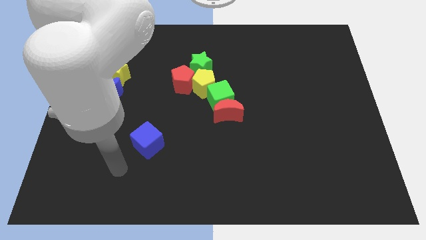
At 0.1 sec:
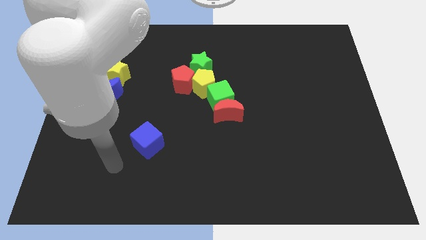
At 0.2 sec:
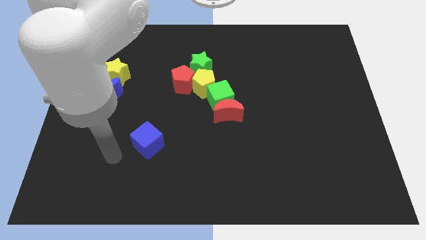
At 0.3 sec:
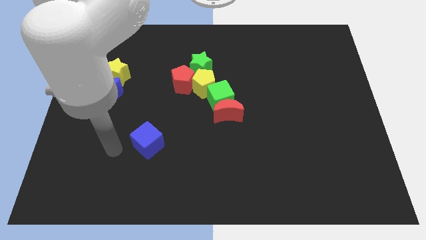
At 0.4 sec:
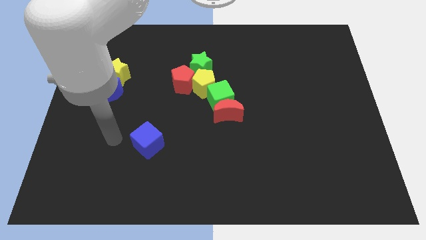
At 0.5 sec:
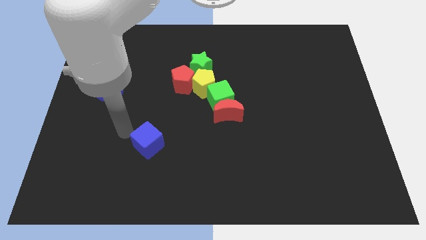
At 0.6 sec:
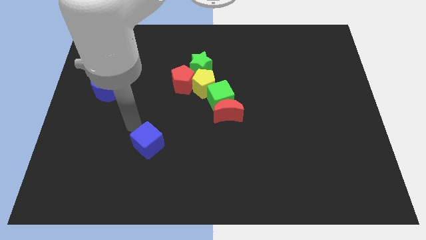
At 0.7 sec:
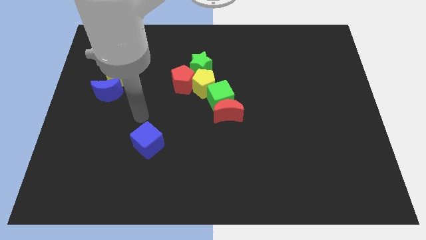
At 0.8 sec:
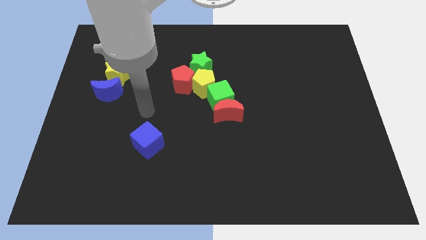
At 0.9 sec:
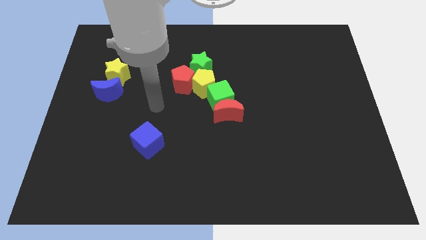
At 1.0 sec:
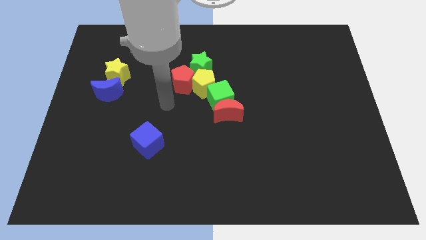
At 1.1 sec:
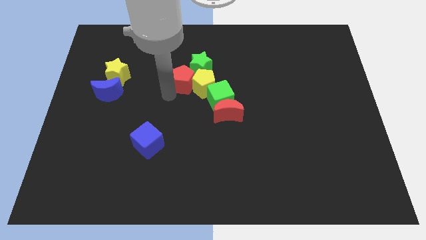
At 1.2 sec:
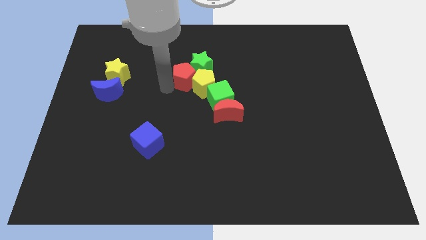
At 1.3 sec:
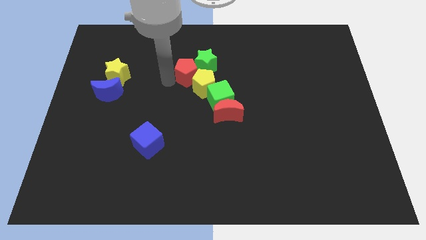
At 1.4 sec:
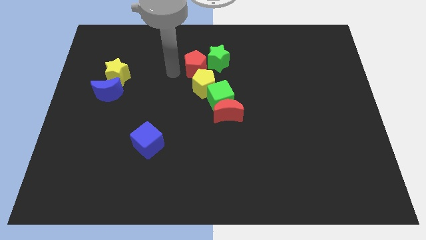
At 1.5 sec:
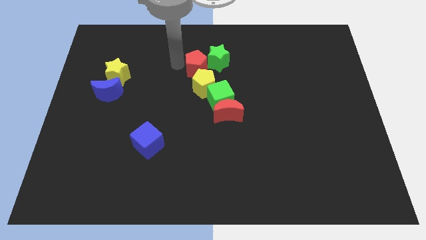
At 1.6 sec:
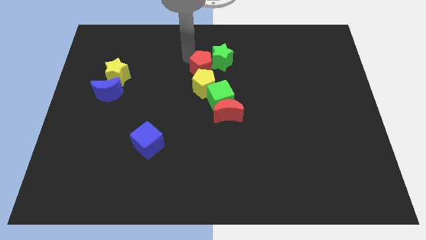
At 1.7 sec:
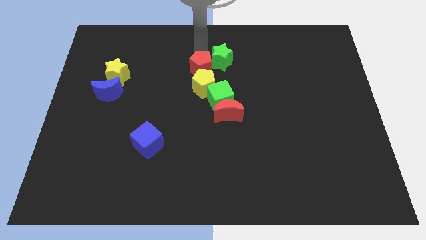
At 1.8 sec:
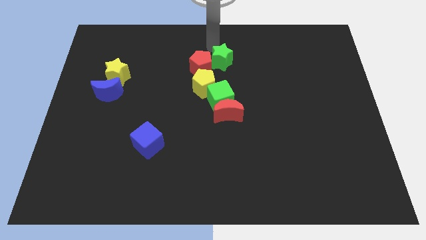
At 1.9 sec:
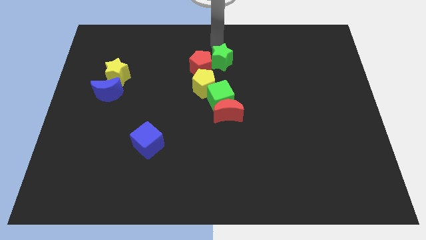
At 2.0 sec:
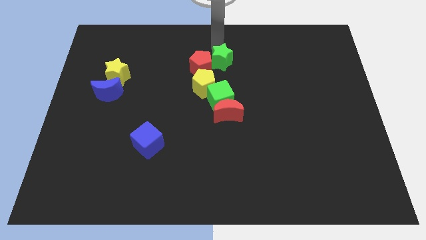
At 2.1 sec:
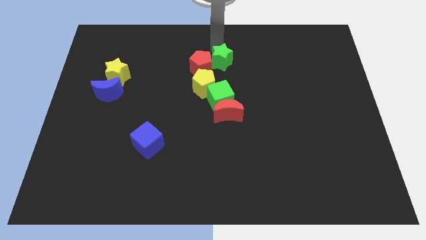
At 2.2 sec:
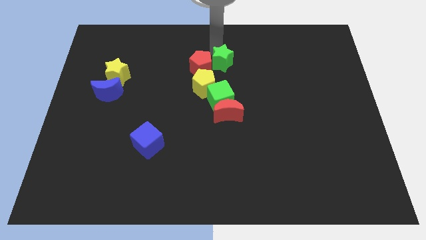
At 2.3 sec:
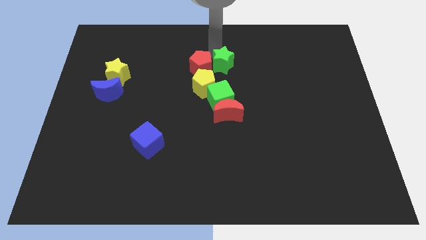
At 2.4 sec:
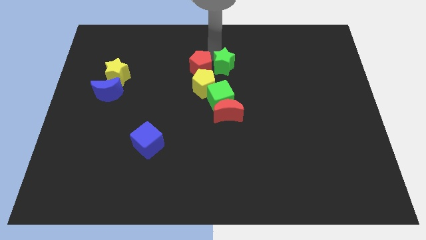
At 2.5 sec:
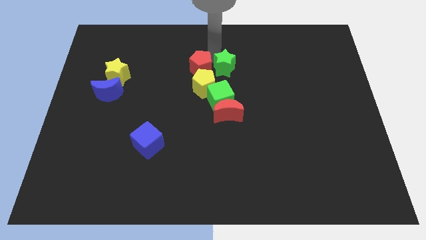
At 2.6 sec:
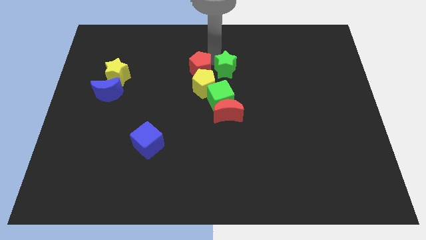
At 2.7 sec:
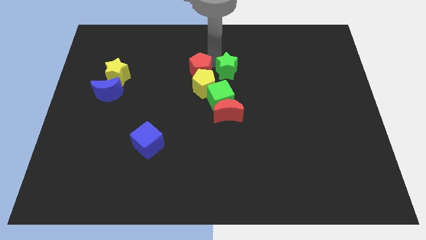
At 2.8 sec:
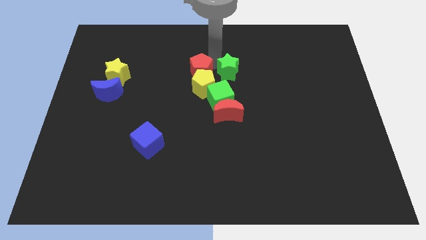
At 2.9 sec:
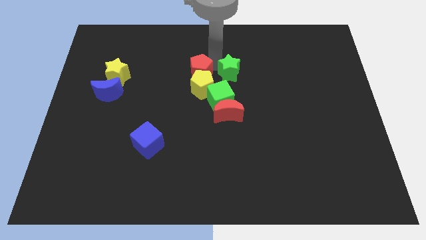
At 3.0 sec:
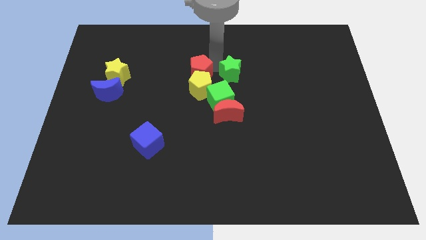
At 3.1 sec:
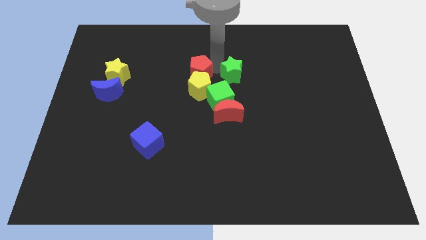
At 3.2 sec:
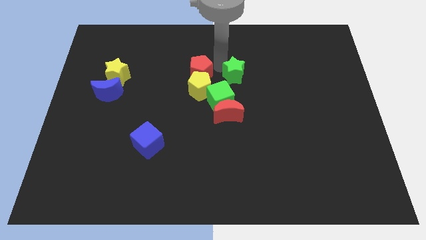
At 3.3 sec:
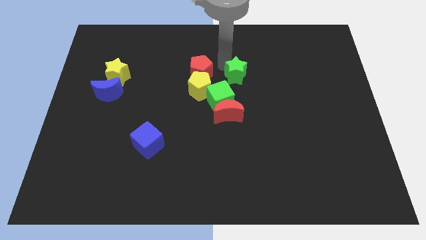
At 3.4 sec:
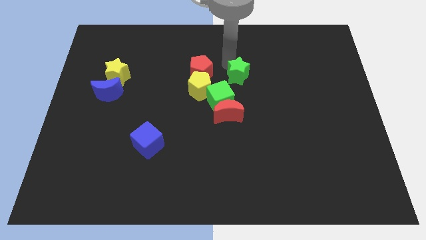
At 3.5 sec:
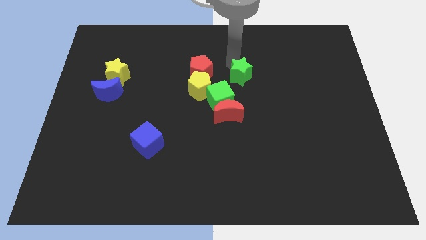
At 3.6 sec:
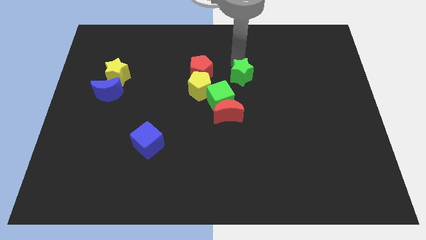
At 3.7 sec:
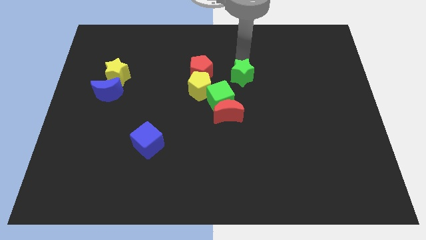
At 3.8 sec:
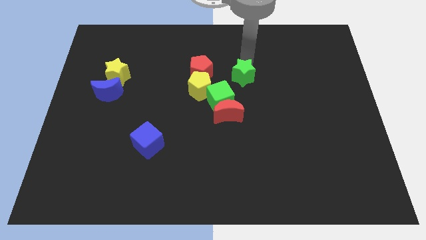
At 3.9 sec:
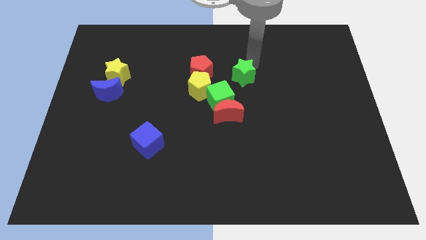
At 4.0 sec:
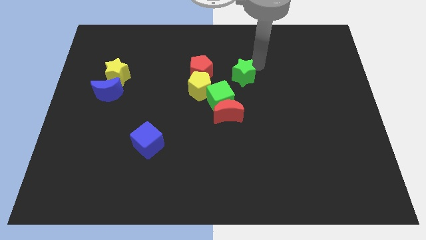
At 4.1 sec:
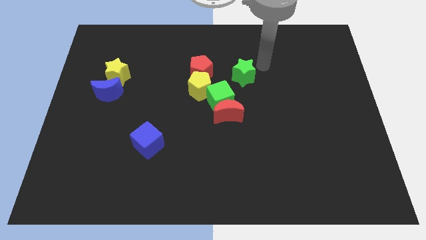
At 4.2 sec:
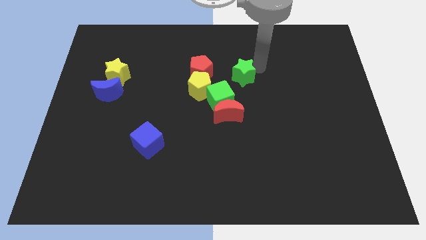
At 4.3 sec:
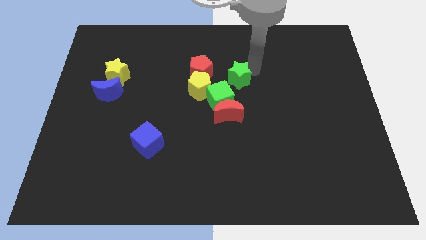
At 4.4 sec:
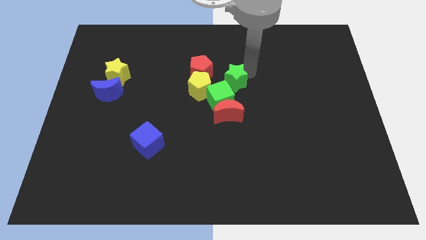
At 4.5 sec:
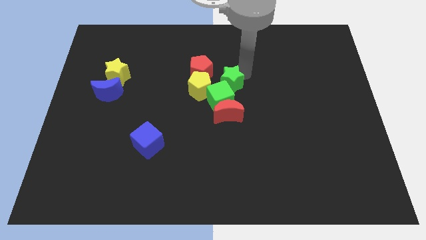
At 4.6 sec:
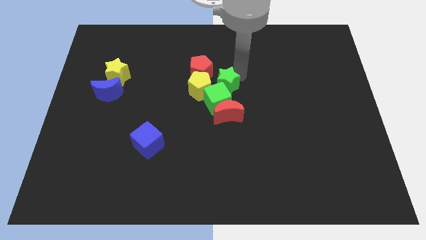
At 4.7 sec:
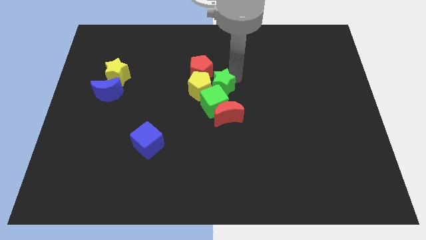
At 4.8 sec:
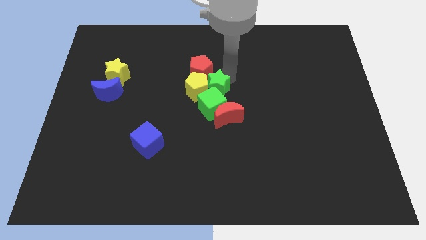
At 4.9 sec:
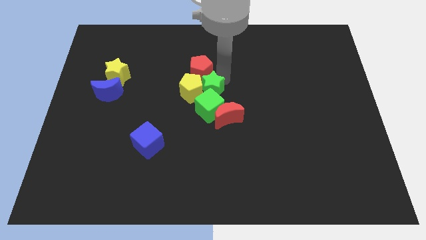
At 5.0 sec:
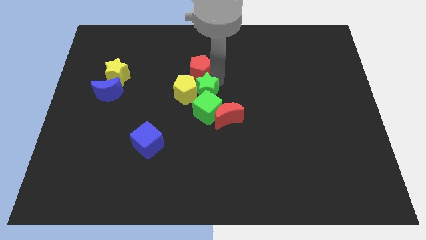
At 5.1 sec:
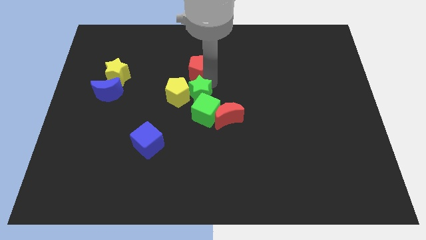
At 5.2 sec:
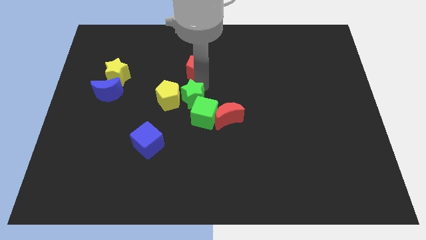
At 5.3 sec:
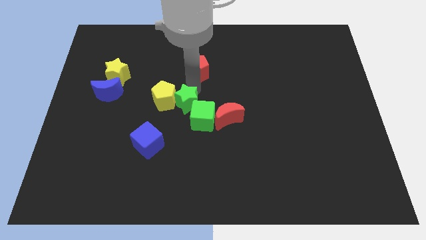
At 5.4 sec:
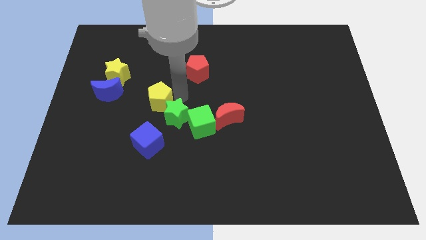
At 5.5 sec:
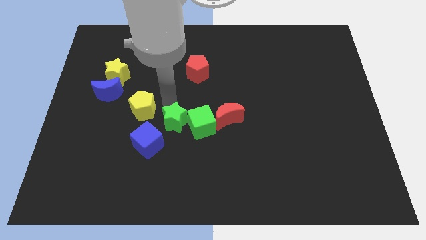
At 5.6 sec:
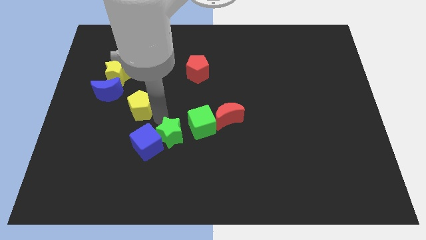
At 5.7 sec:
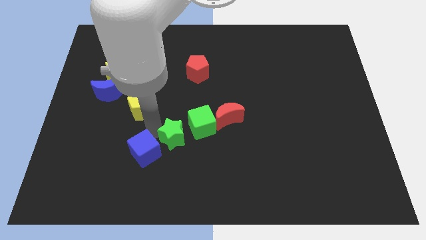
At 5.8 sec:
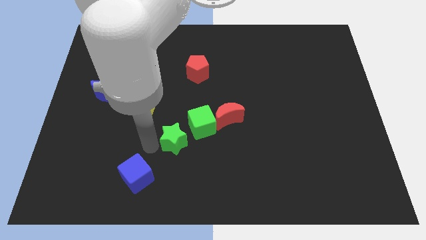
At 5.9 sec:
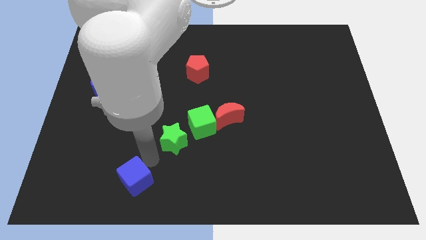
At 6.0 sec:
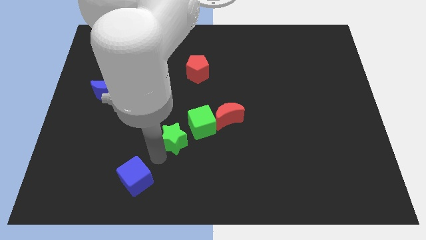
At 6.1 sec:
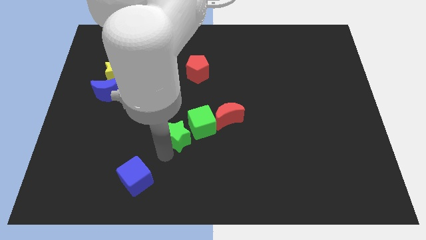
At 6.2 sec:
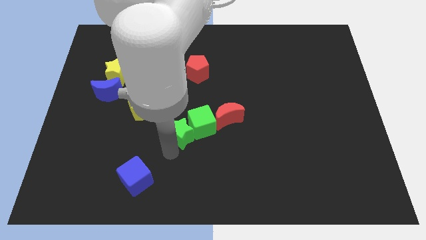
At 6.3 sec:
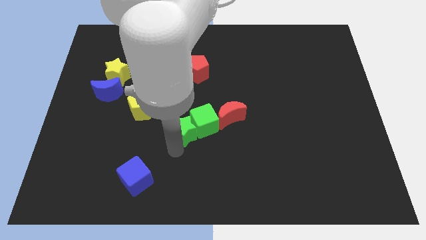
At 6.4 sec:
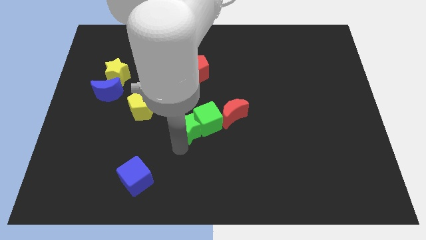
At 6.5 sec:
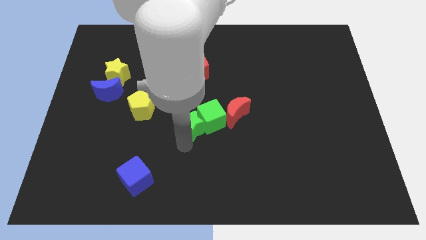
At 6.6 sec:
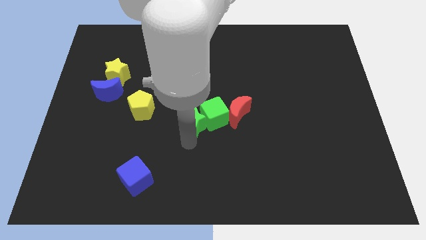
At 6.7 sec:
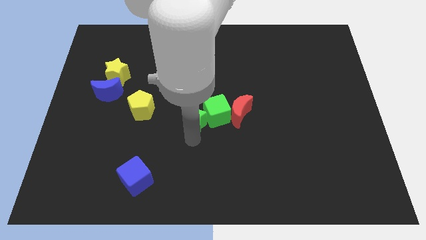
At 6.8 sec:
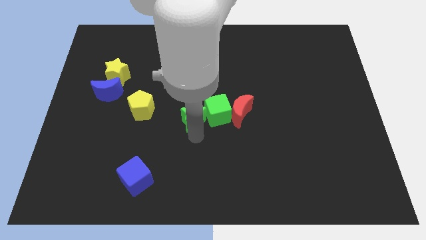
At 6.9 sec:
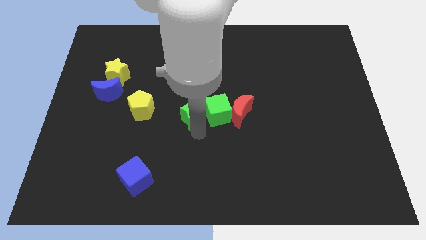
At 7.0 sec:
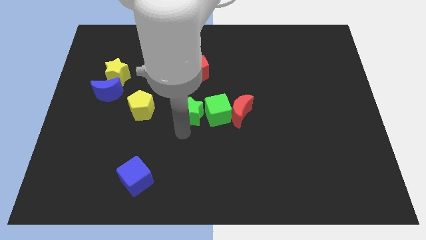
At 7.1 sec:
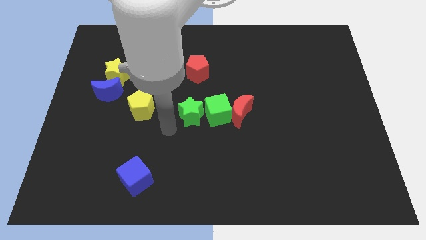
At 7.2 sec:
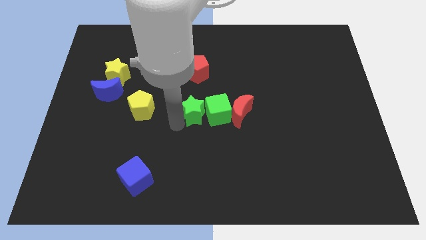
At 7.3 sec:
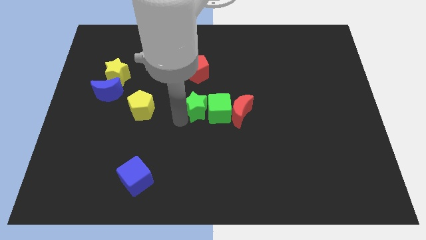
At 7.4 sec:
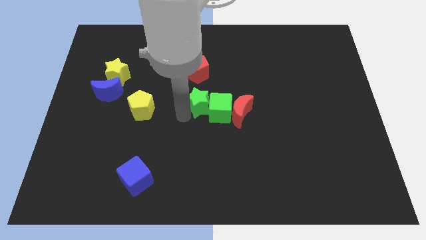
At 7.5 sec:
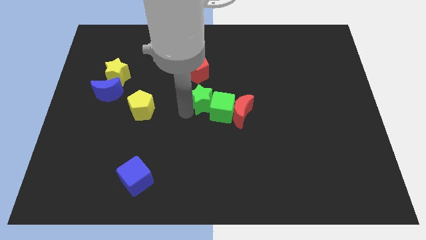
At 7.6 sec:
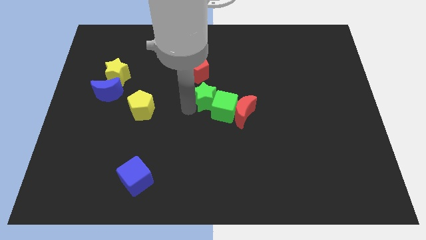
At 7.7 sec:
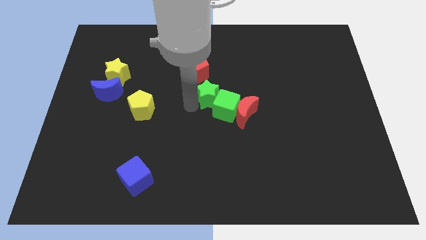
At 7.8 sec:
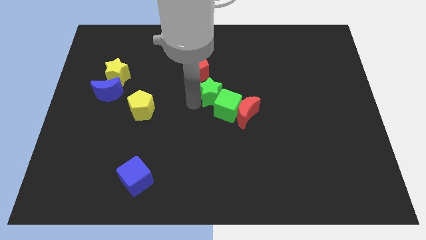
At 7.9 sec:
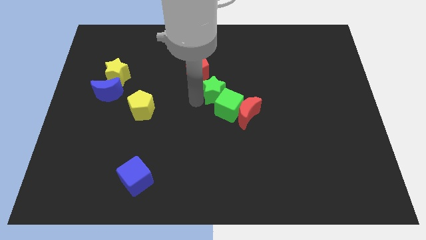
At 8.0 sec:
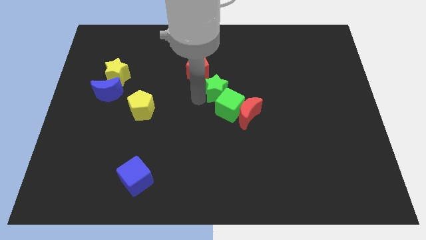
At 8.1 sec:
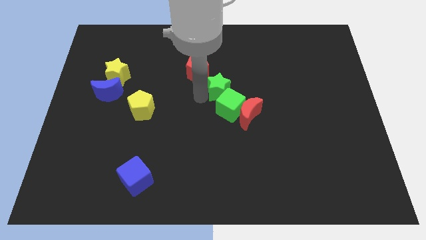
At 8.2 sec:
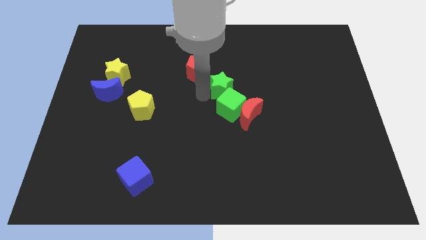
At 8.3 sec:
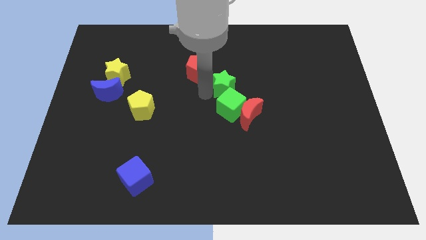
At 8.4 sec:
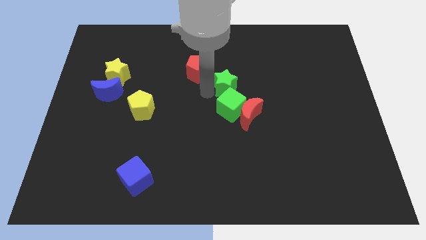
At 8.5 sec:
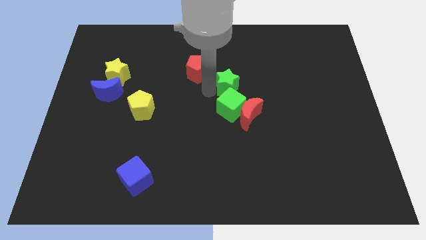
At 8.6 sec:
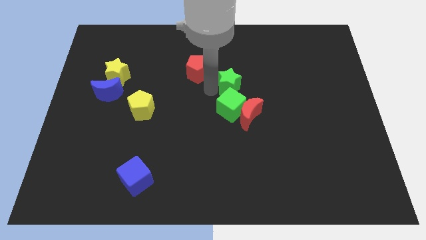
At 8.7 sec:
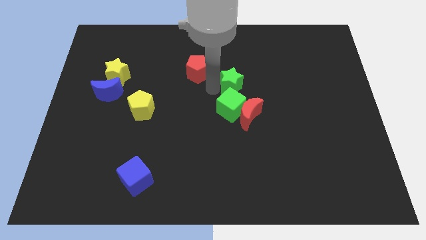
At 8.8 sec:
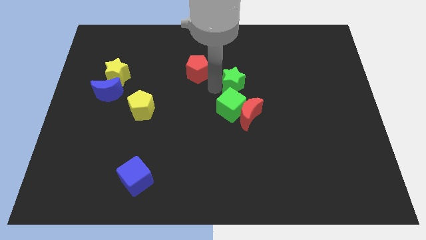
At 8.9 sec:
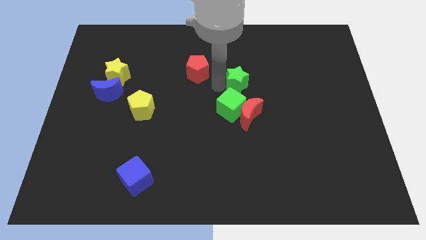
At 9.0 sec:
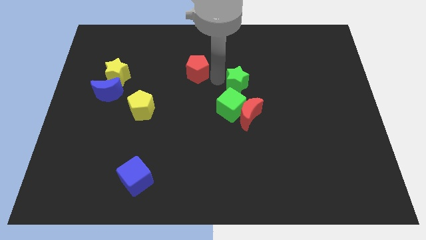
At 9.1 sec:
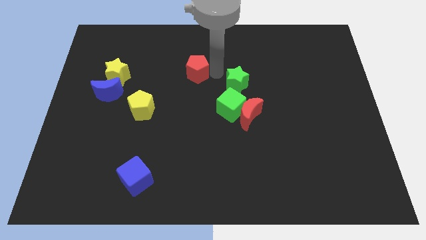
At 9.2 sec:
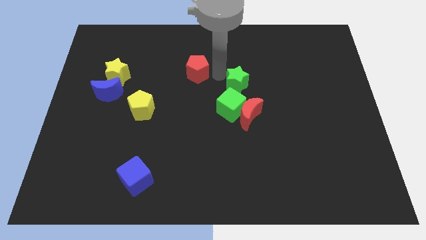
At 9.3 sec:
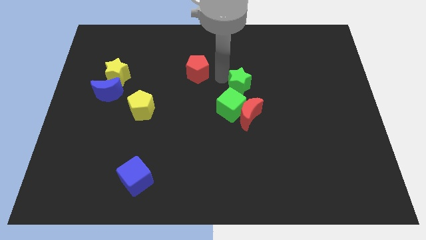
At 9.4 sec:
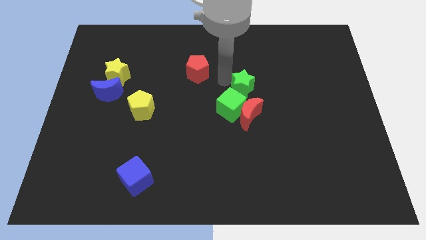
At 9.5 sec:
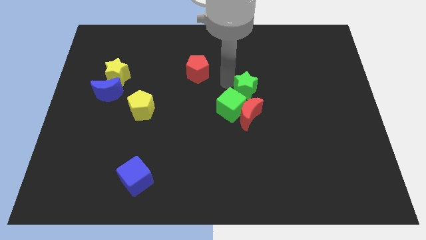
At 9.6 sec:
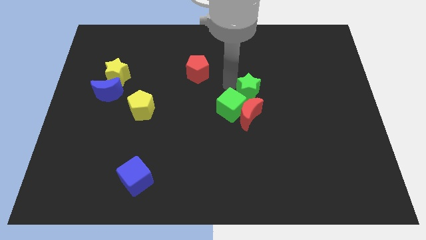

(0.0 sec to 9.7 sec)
slide the green star to the right of the green cube
